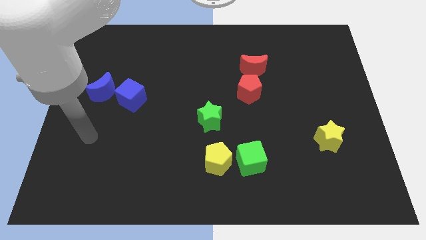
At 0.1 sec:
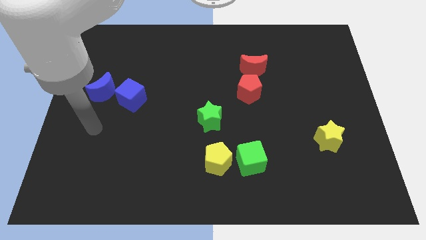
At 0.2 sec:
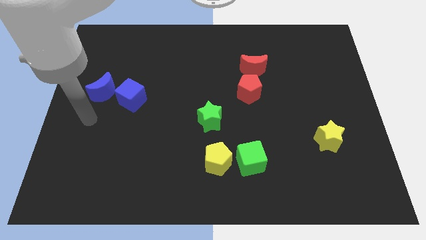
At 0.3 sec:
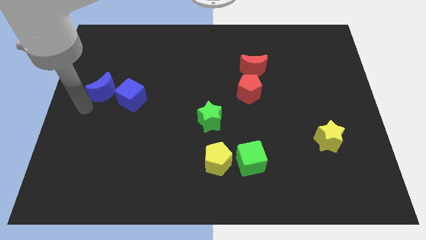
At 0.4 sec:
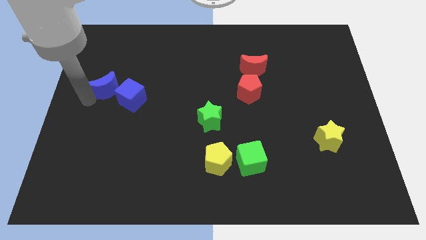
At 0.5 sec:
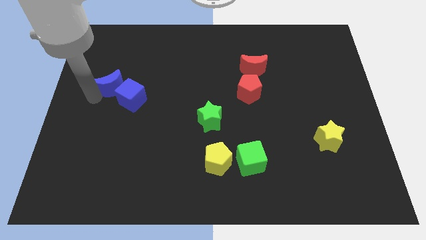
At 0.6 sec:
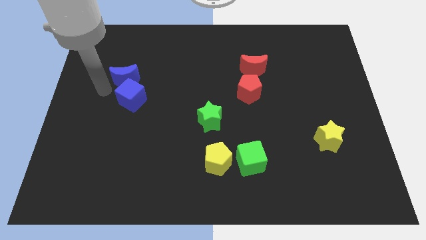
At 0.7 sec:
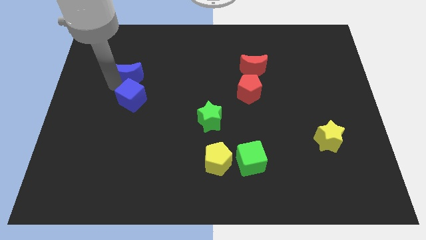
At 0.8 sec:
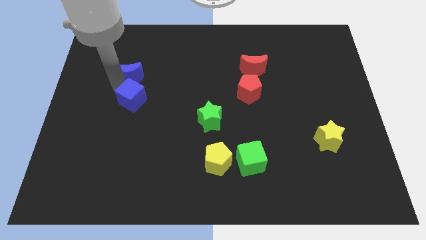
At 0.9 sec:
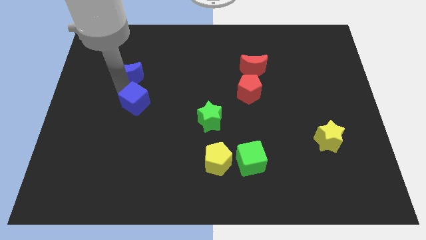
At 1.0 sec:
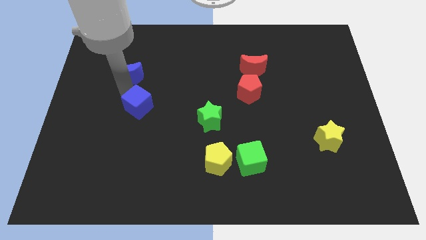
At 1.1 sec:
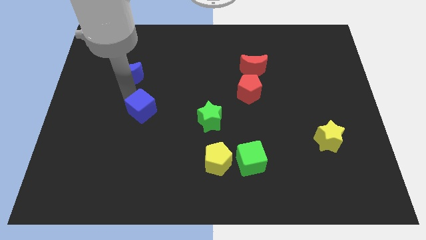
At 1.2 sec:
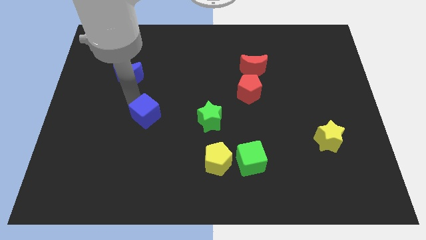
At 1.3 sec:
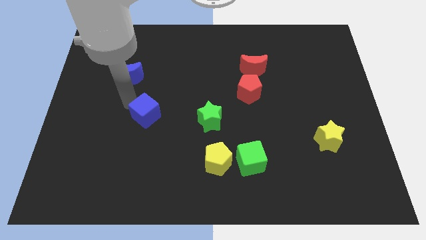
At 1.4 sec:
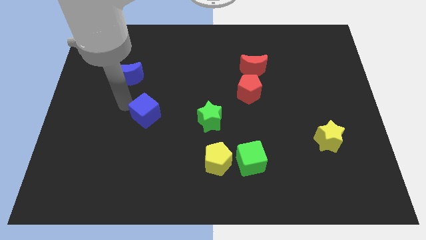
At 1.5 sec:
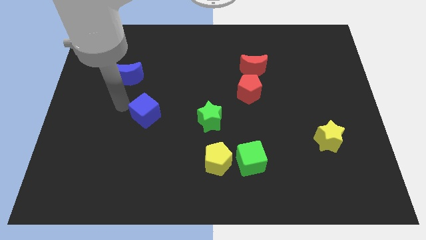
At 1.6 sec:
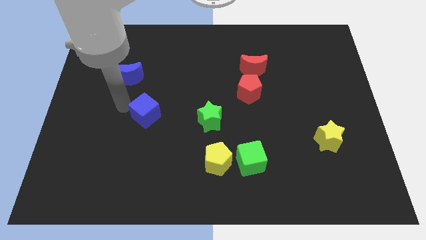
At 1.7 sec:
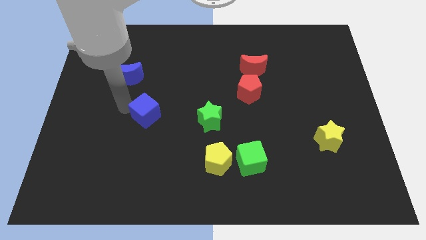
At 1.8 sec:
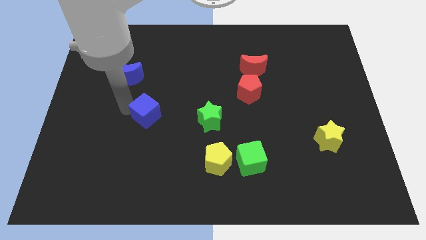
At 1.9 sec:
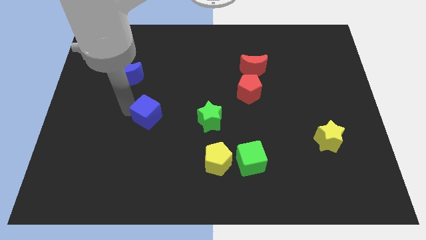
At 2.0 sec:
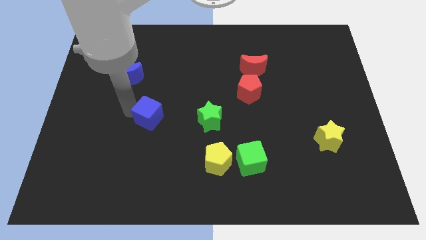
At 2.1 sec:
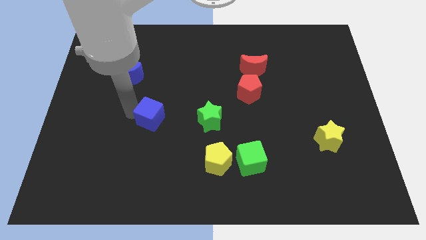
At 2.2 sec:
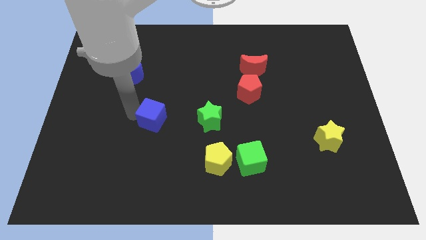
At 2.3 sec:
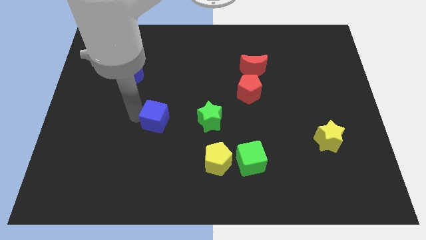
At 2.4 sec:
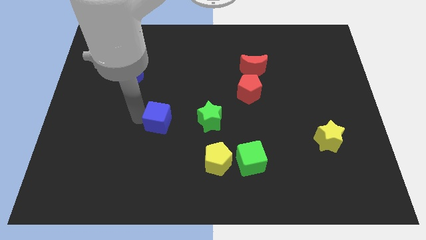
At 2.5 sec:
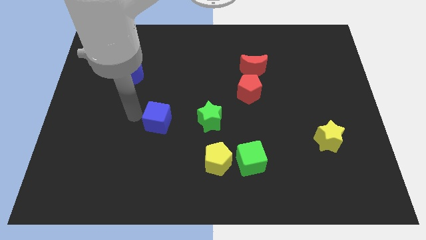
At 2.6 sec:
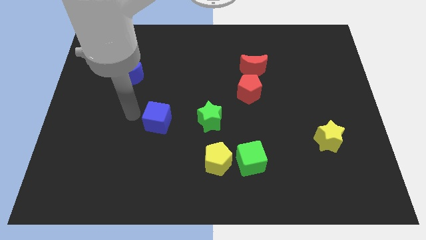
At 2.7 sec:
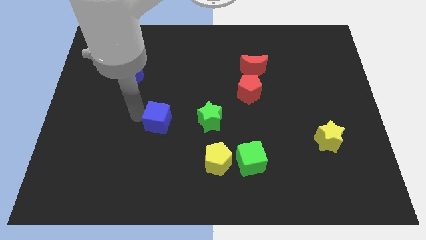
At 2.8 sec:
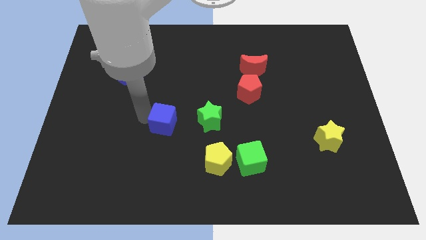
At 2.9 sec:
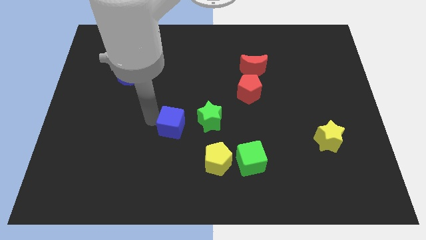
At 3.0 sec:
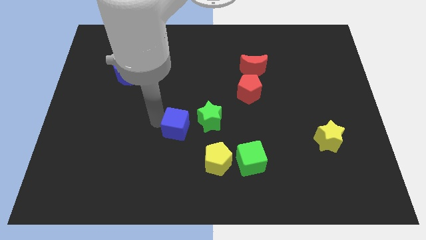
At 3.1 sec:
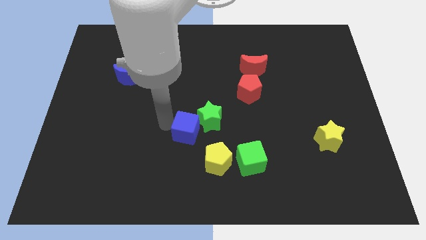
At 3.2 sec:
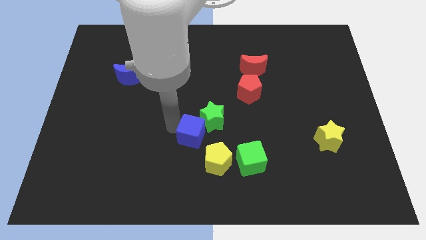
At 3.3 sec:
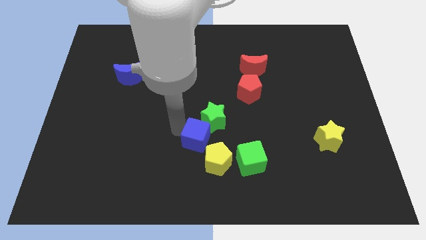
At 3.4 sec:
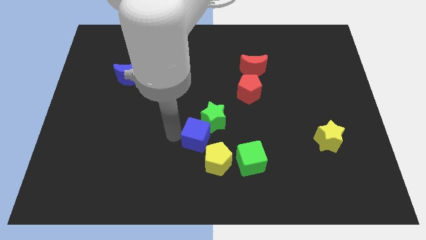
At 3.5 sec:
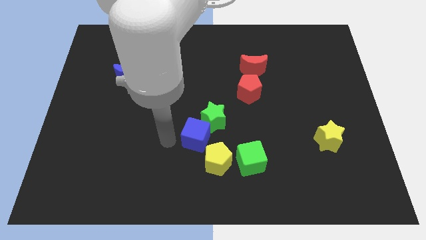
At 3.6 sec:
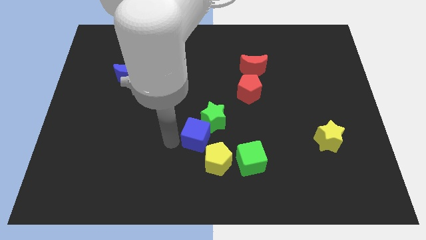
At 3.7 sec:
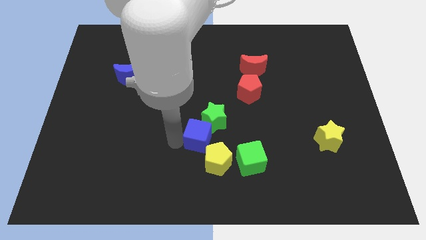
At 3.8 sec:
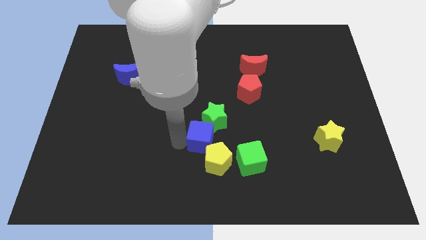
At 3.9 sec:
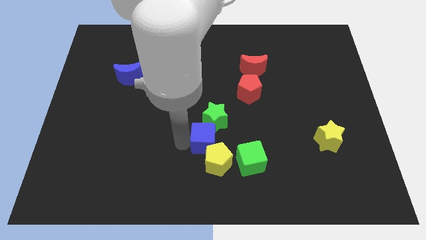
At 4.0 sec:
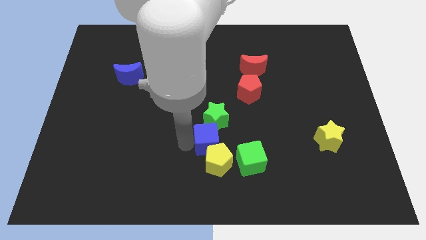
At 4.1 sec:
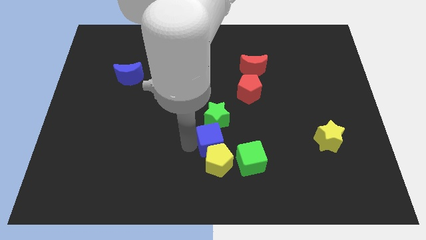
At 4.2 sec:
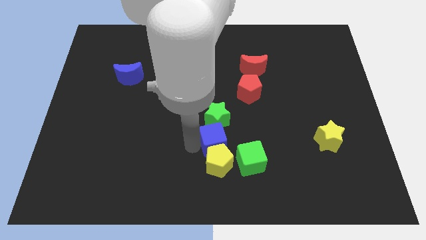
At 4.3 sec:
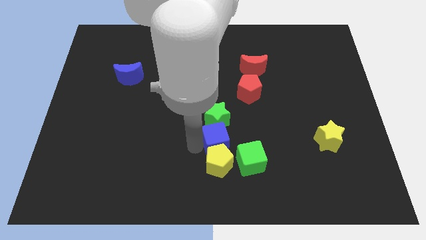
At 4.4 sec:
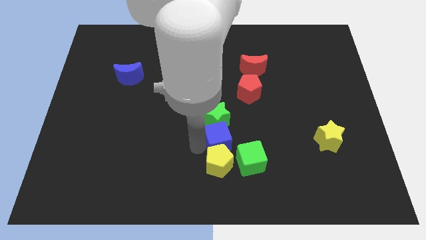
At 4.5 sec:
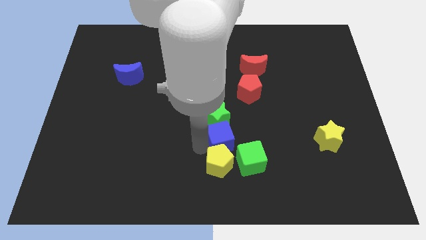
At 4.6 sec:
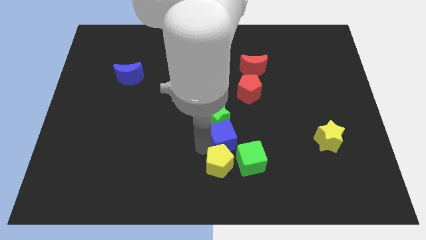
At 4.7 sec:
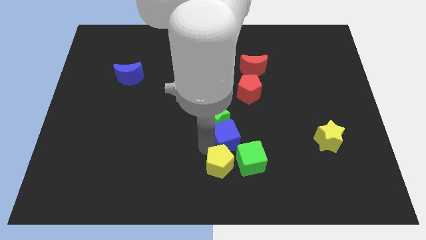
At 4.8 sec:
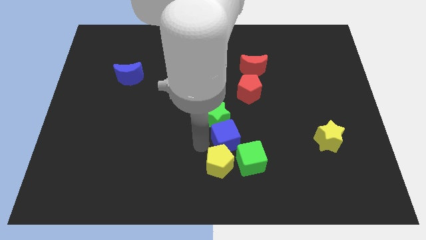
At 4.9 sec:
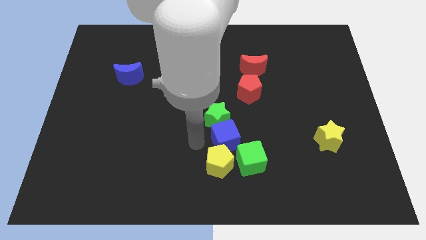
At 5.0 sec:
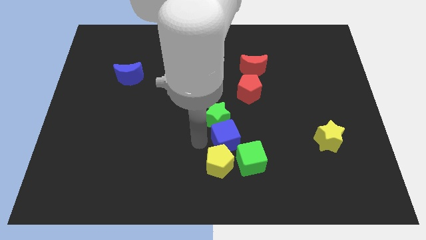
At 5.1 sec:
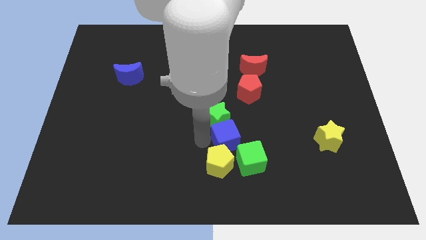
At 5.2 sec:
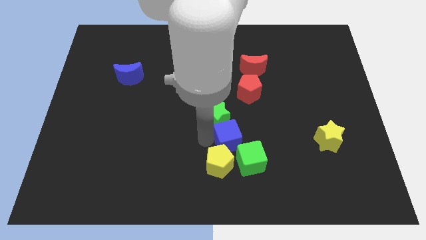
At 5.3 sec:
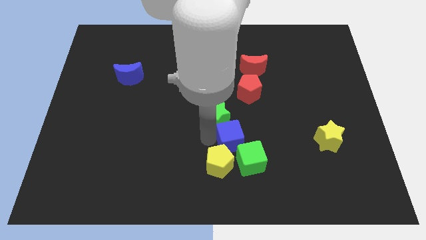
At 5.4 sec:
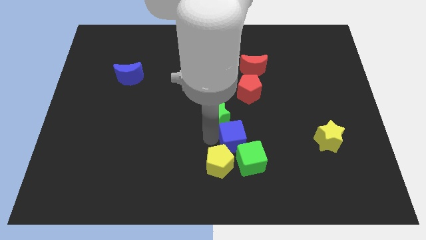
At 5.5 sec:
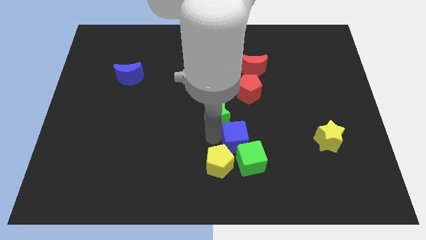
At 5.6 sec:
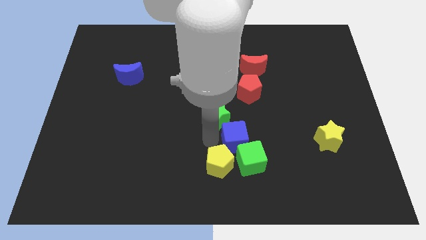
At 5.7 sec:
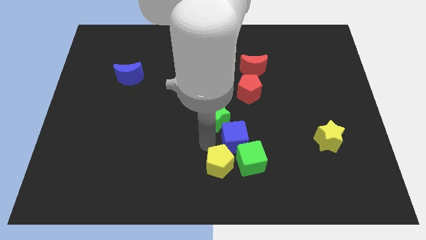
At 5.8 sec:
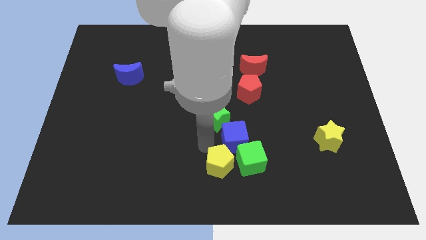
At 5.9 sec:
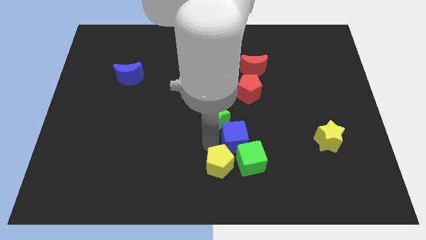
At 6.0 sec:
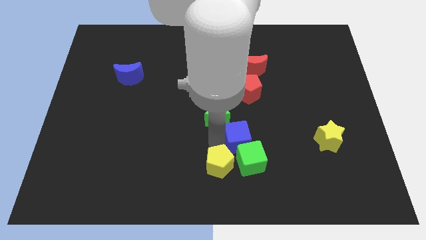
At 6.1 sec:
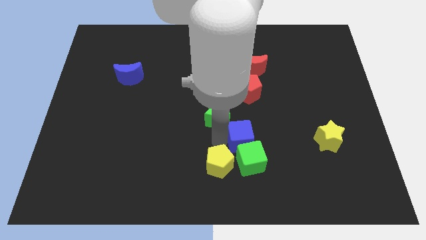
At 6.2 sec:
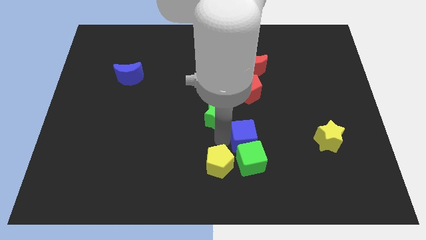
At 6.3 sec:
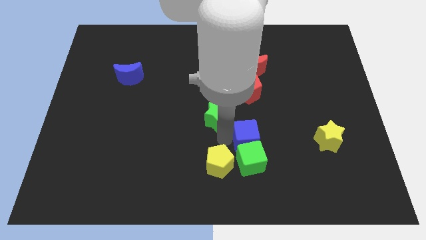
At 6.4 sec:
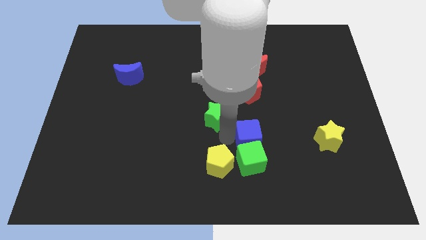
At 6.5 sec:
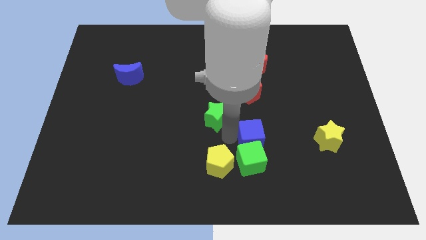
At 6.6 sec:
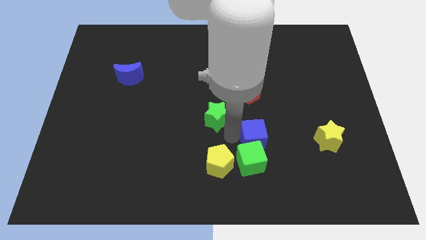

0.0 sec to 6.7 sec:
move the blue cube to the left side of the yellow star
